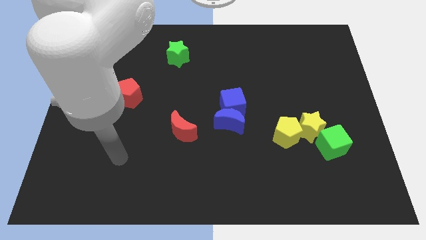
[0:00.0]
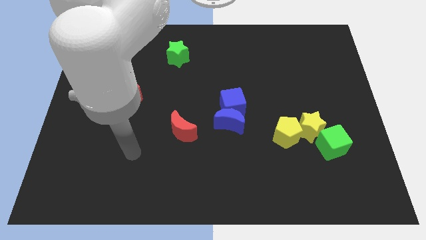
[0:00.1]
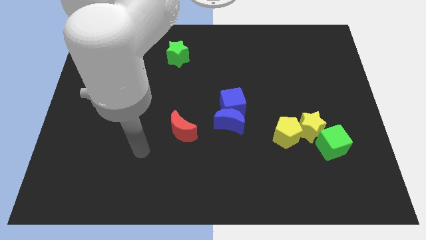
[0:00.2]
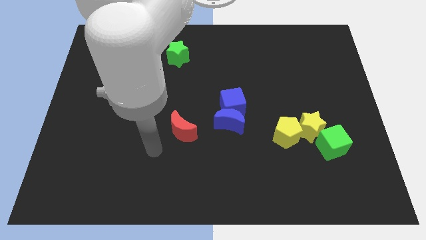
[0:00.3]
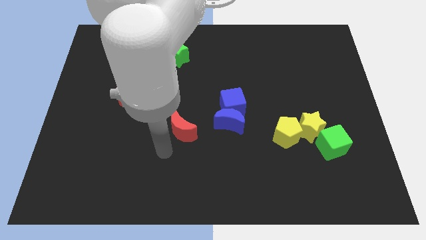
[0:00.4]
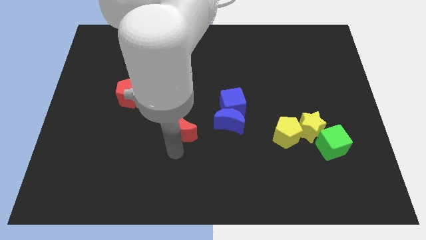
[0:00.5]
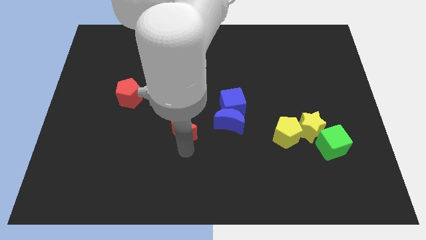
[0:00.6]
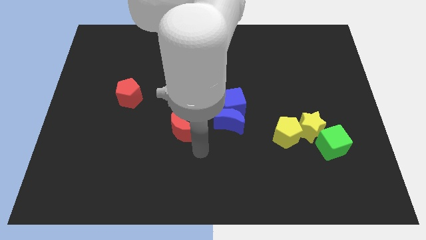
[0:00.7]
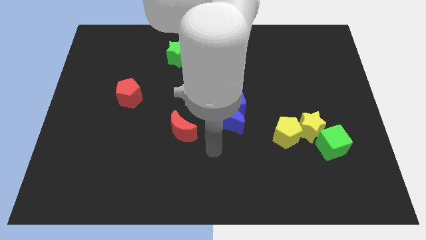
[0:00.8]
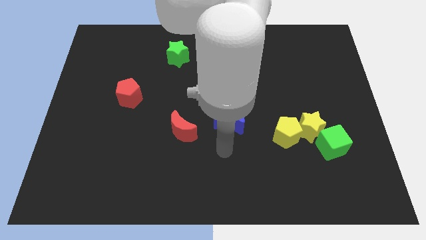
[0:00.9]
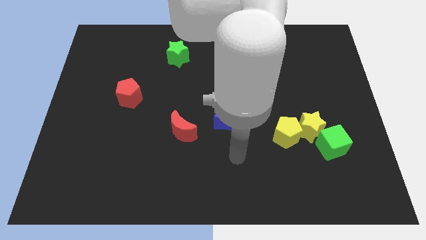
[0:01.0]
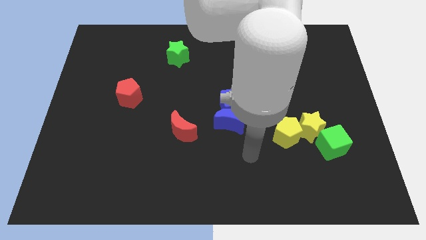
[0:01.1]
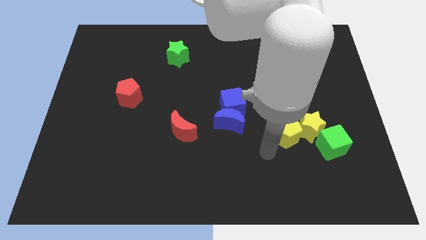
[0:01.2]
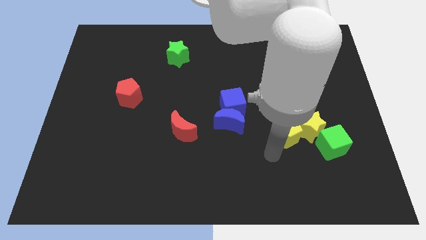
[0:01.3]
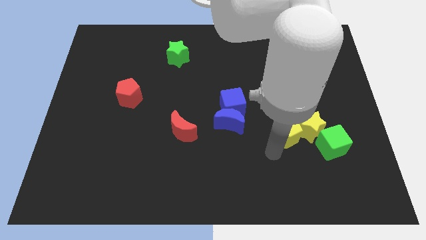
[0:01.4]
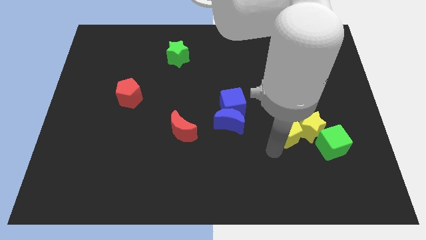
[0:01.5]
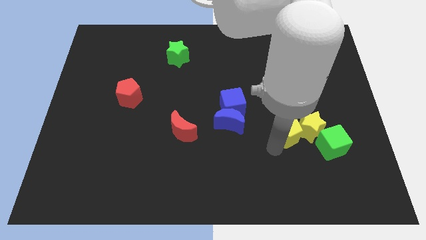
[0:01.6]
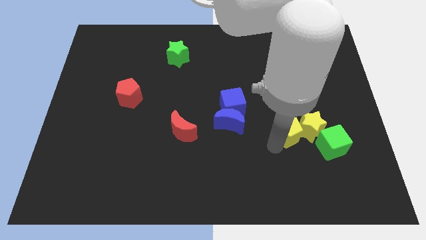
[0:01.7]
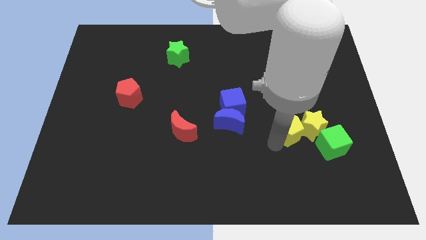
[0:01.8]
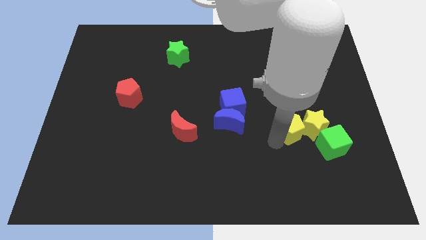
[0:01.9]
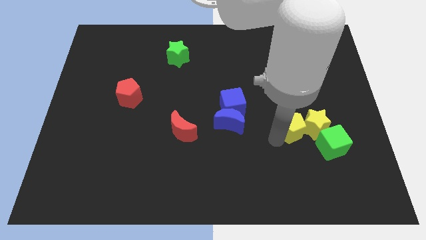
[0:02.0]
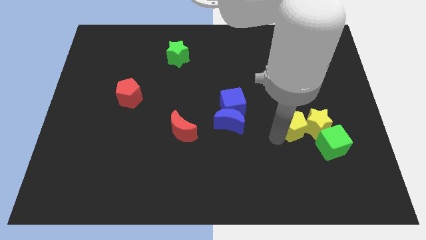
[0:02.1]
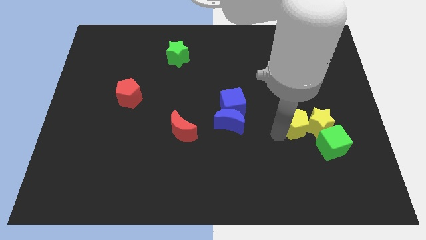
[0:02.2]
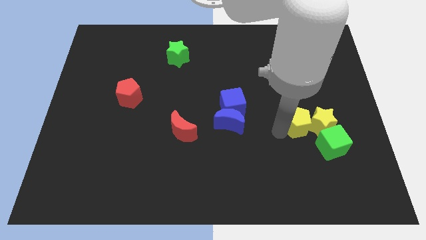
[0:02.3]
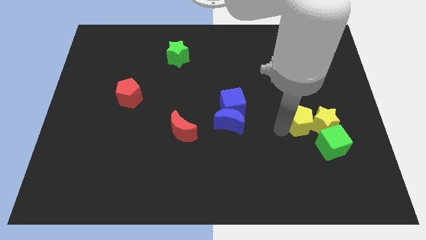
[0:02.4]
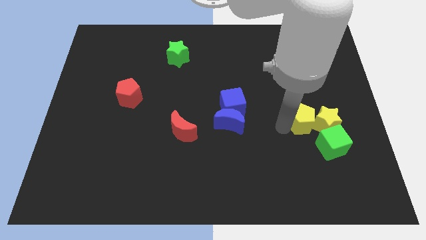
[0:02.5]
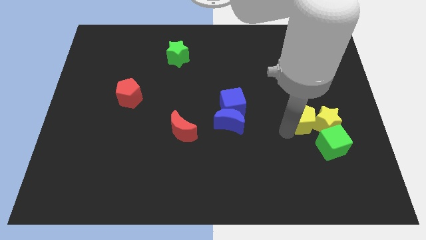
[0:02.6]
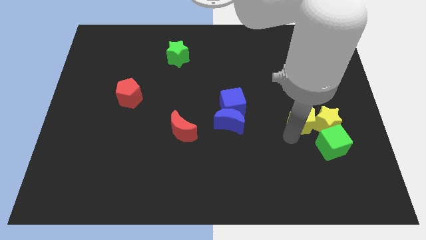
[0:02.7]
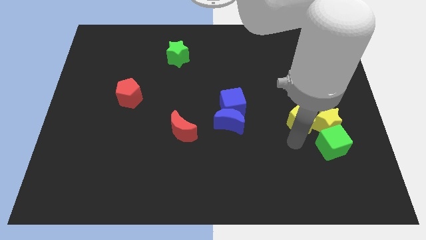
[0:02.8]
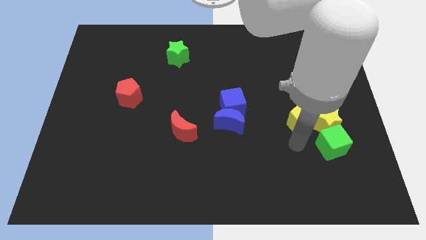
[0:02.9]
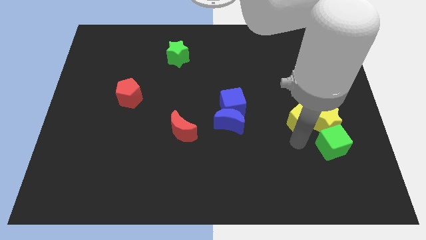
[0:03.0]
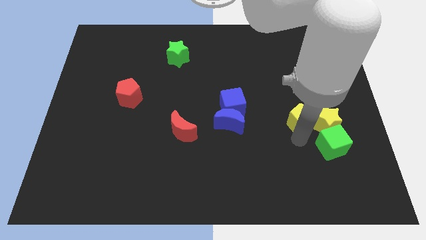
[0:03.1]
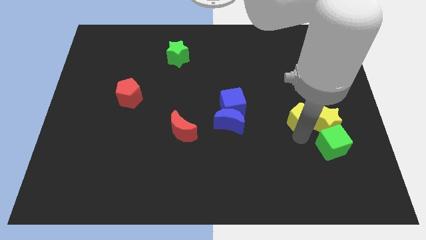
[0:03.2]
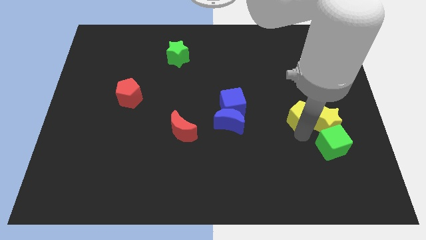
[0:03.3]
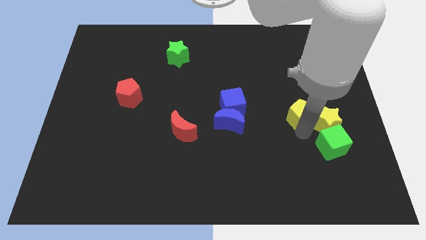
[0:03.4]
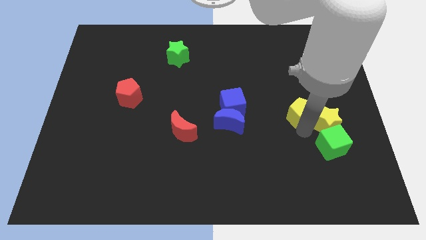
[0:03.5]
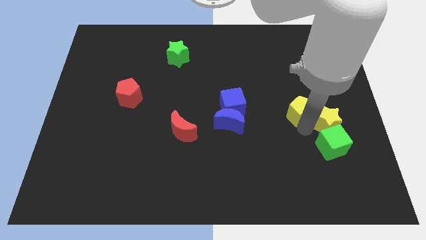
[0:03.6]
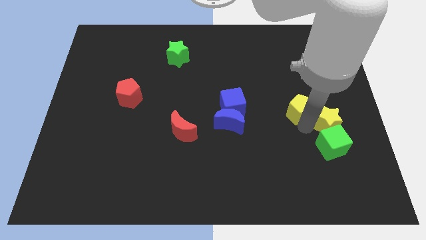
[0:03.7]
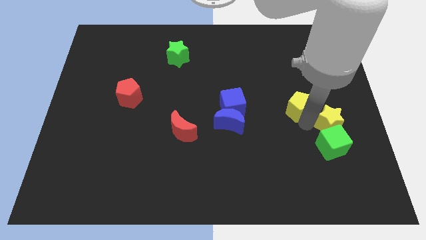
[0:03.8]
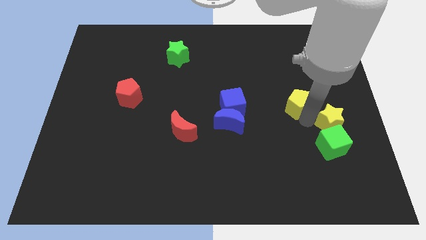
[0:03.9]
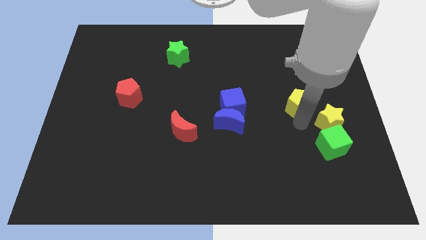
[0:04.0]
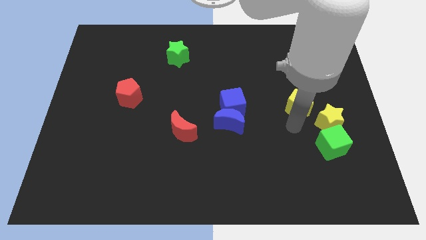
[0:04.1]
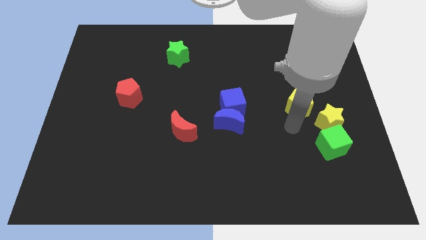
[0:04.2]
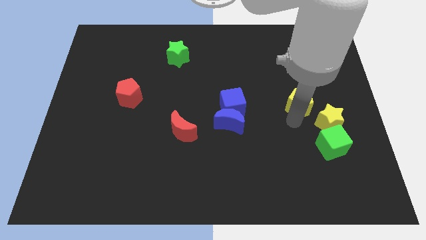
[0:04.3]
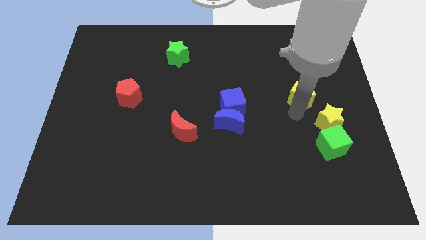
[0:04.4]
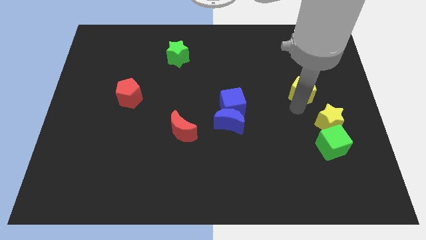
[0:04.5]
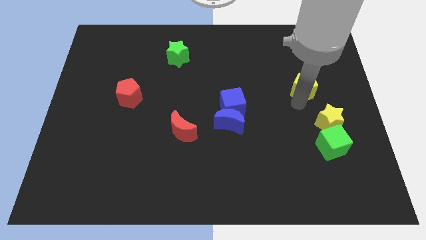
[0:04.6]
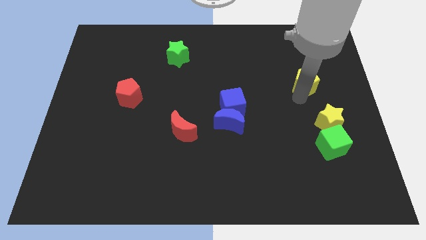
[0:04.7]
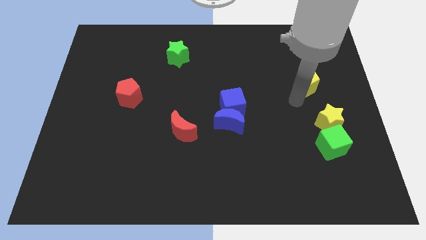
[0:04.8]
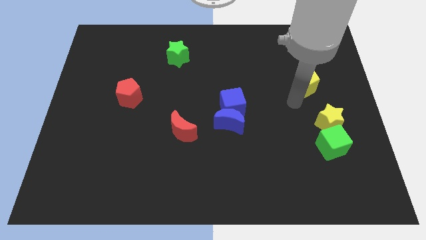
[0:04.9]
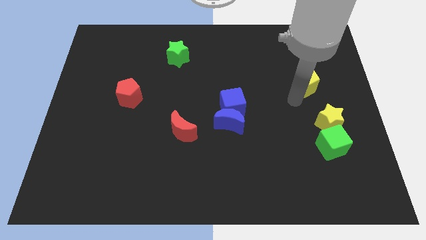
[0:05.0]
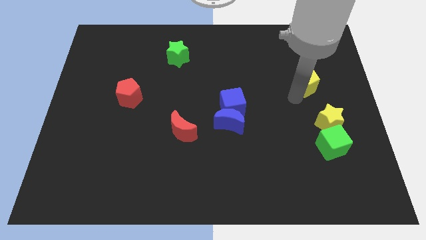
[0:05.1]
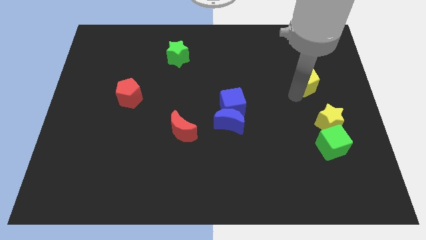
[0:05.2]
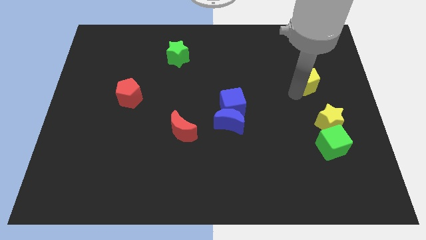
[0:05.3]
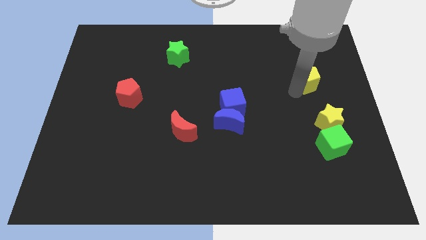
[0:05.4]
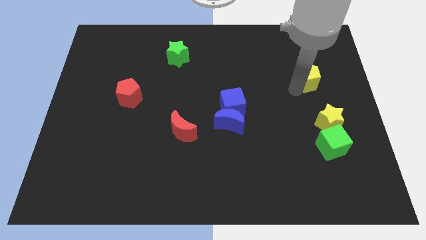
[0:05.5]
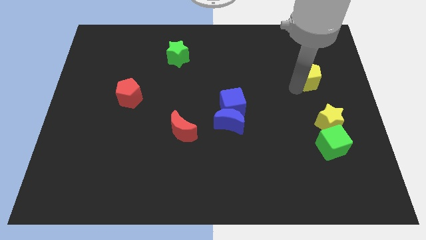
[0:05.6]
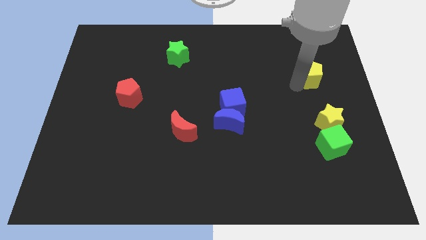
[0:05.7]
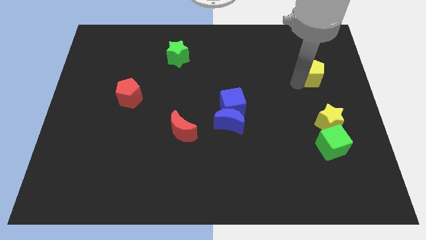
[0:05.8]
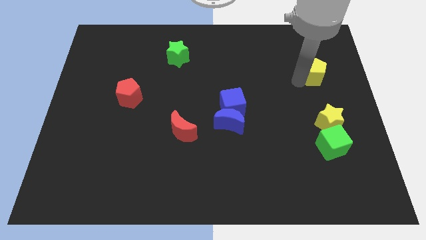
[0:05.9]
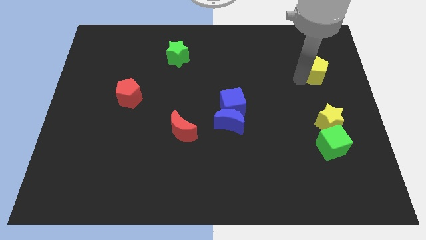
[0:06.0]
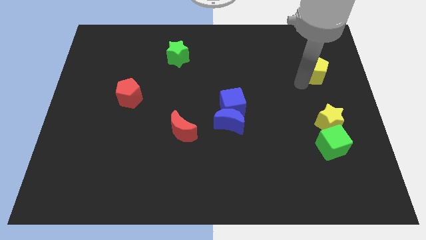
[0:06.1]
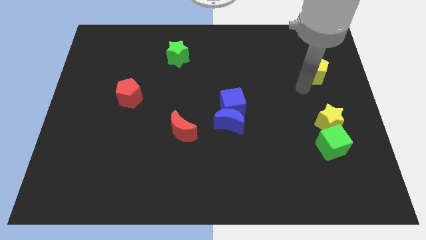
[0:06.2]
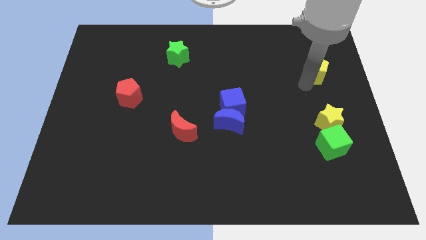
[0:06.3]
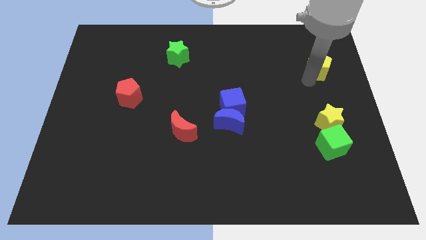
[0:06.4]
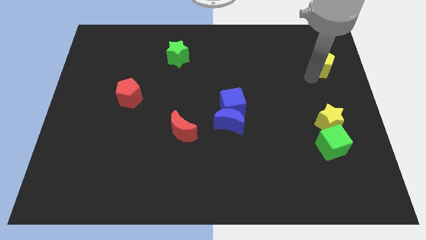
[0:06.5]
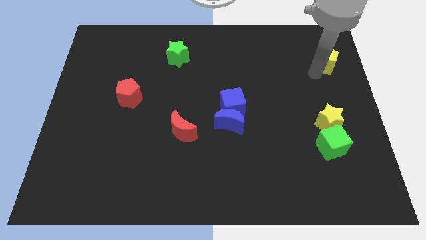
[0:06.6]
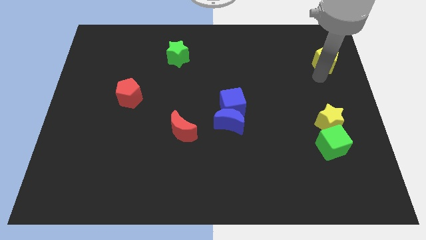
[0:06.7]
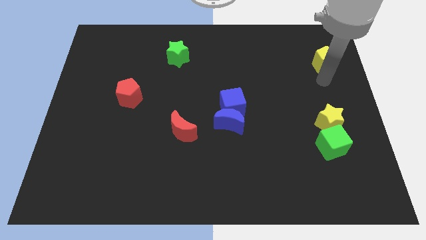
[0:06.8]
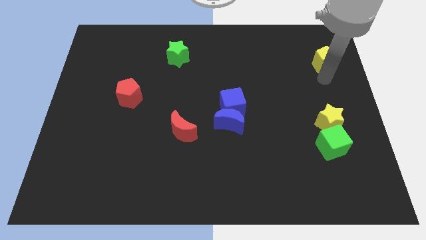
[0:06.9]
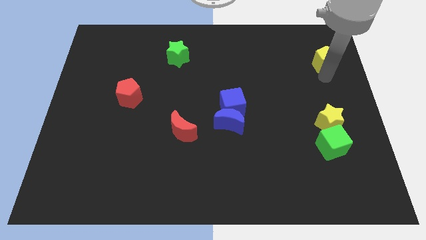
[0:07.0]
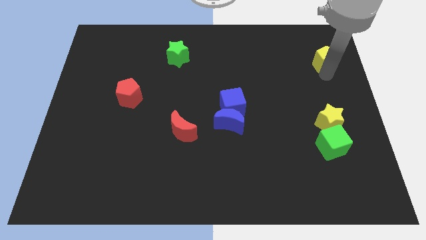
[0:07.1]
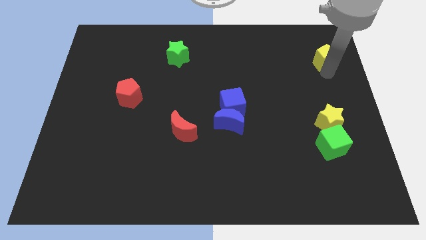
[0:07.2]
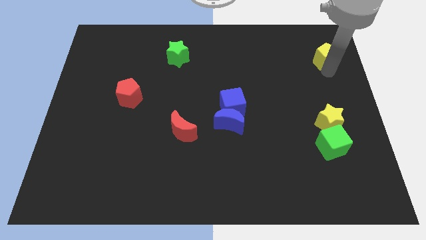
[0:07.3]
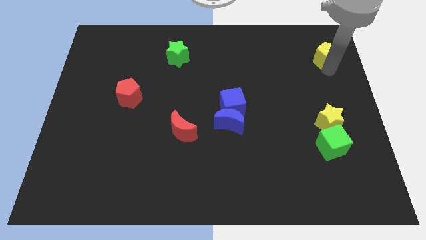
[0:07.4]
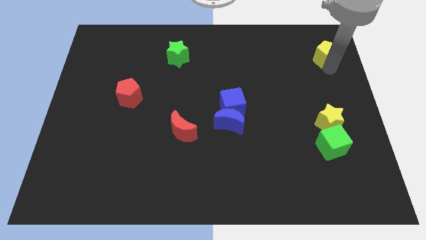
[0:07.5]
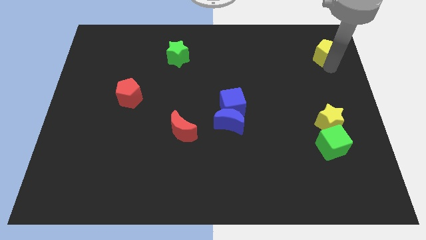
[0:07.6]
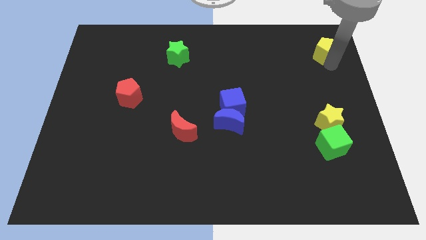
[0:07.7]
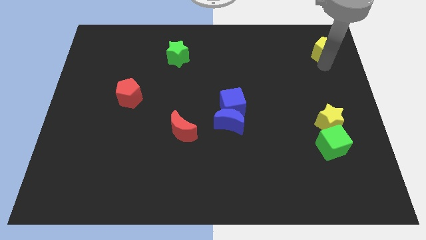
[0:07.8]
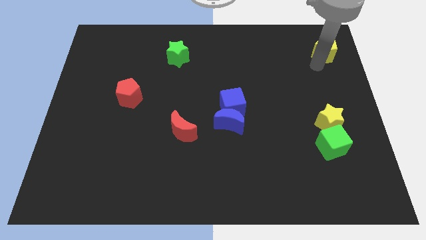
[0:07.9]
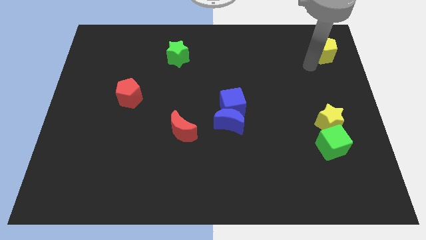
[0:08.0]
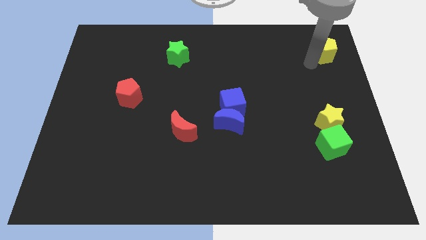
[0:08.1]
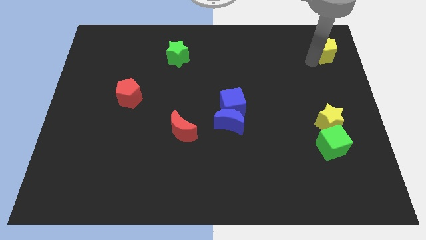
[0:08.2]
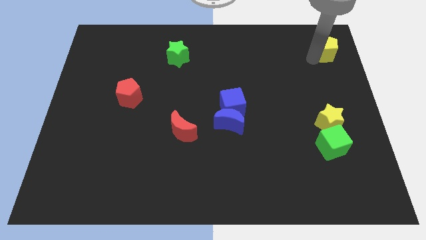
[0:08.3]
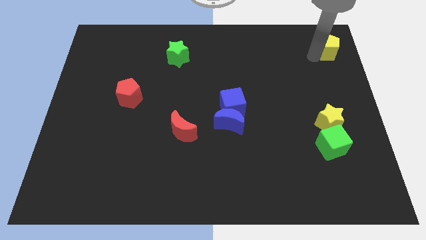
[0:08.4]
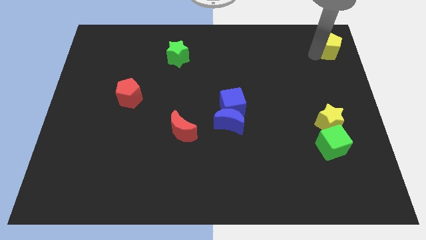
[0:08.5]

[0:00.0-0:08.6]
push the yellow pentagon to the upper right corner
